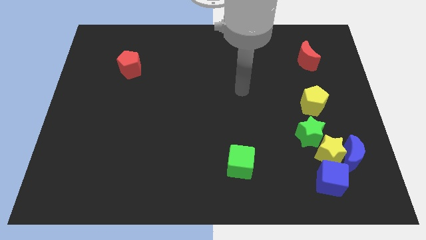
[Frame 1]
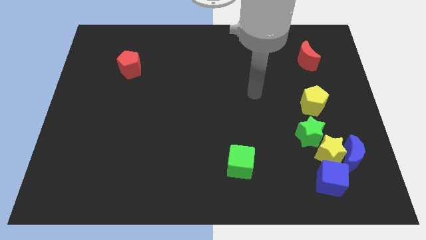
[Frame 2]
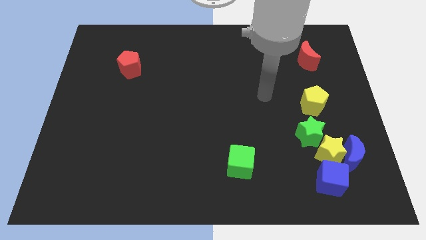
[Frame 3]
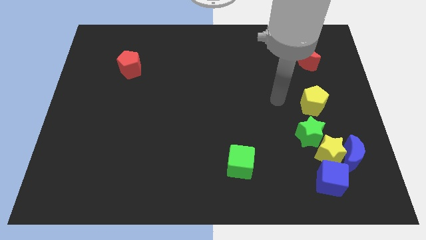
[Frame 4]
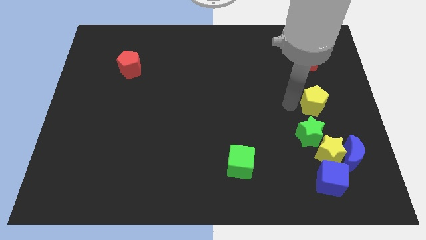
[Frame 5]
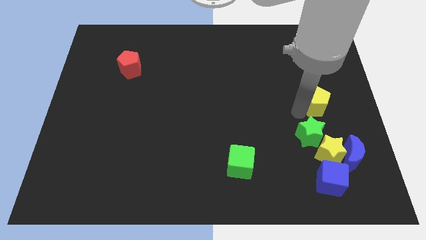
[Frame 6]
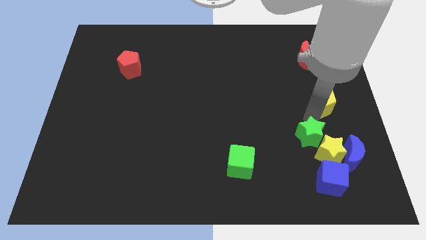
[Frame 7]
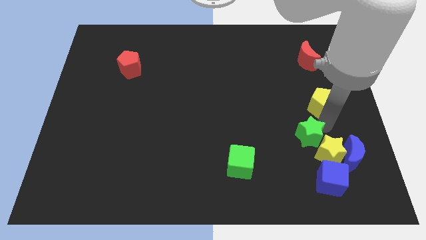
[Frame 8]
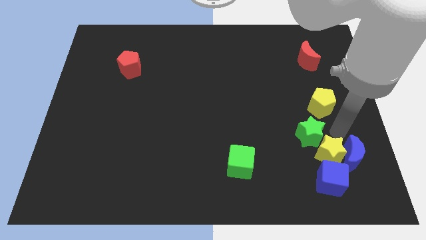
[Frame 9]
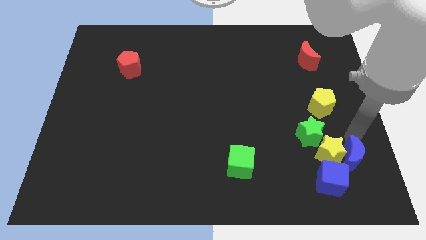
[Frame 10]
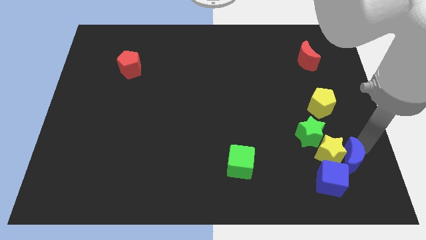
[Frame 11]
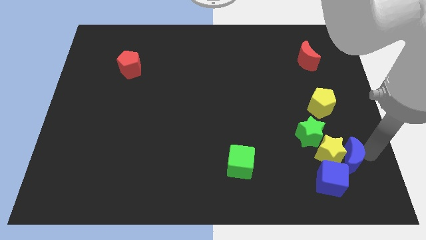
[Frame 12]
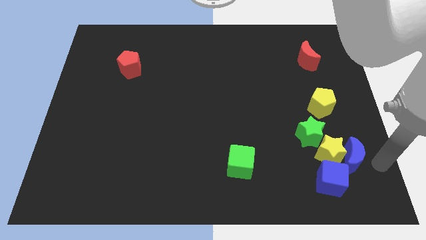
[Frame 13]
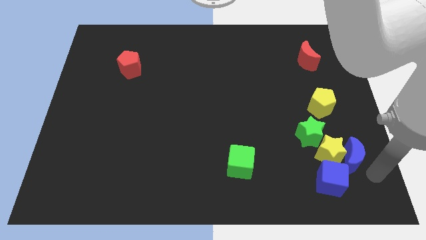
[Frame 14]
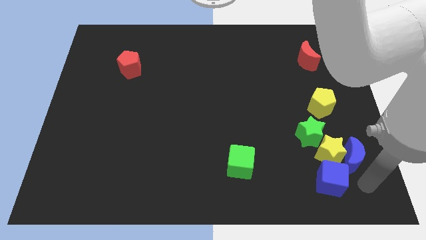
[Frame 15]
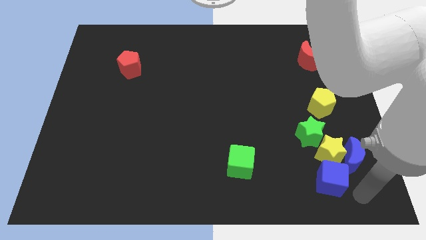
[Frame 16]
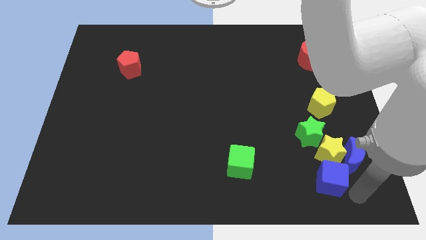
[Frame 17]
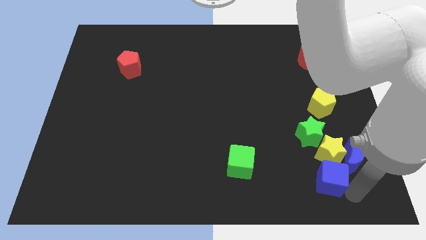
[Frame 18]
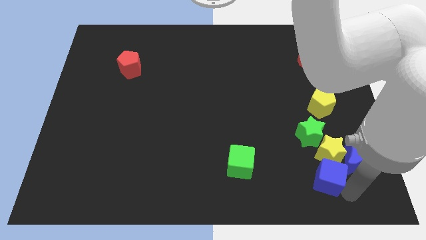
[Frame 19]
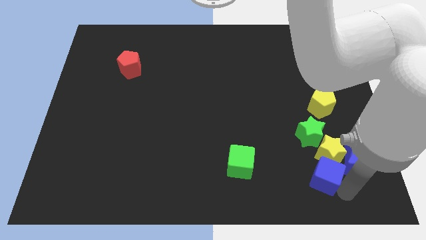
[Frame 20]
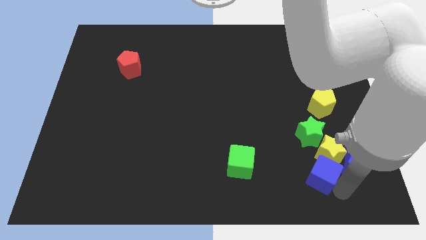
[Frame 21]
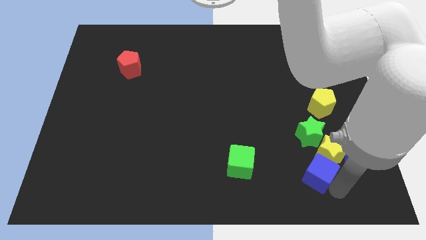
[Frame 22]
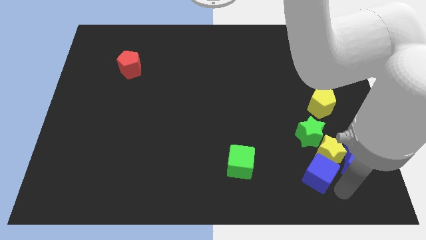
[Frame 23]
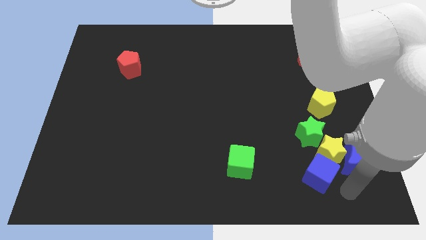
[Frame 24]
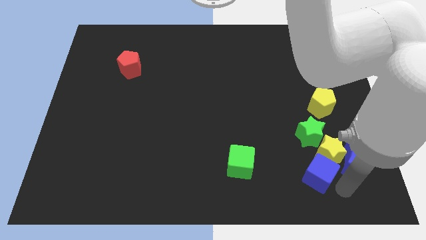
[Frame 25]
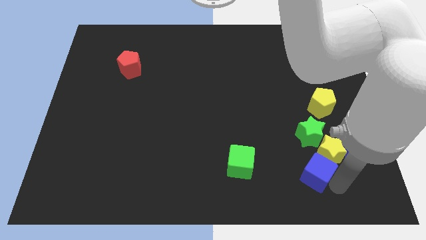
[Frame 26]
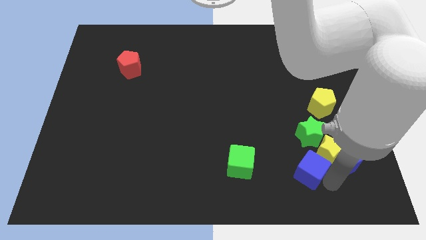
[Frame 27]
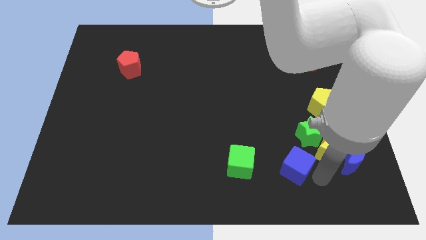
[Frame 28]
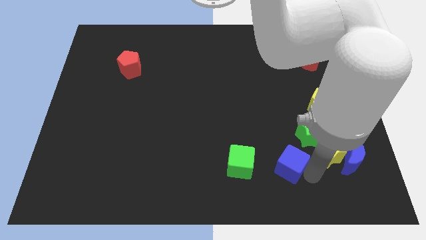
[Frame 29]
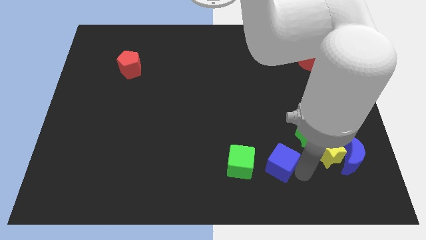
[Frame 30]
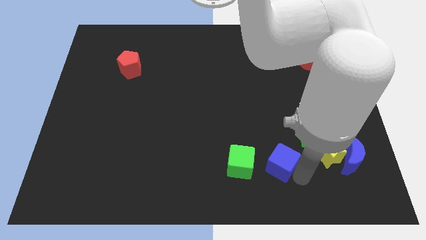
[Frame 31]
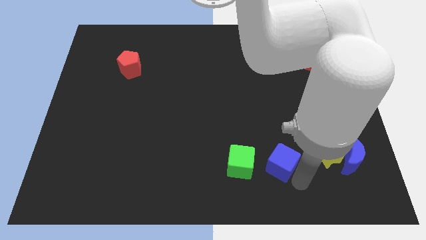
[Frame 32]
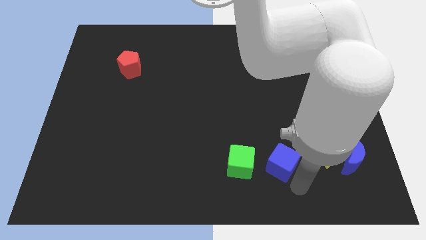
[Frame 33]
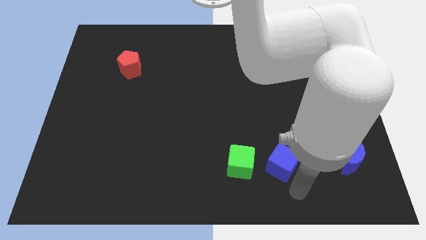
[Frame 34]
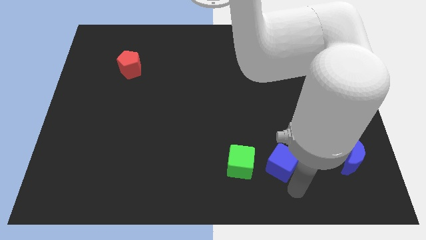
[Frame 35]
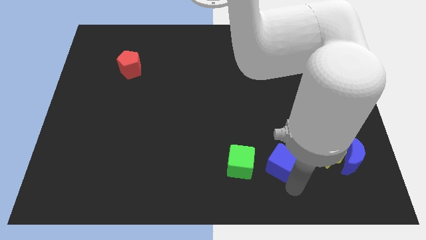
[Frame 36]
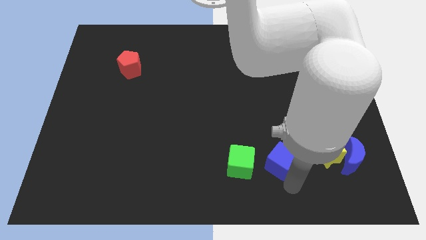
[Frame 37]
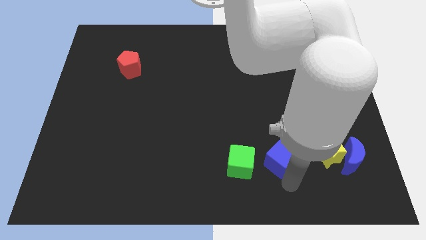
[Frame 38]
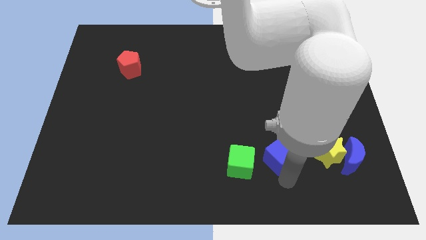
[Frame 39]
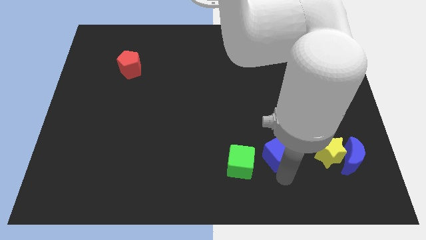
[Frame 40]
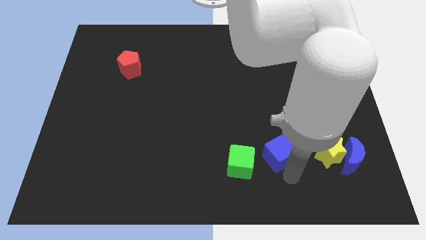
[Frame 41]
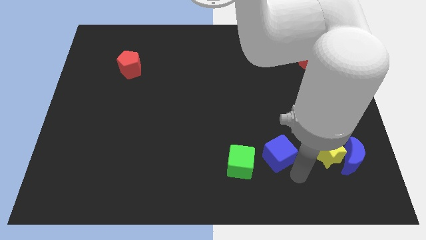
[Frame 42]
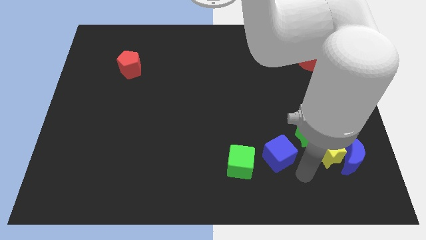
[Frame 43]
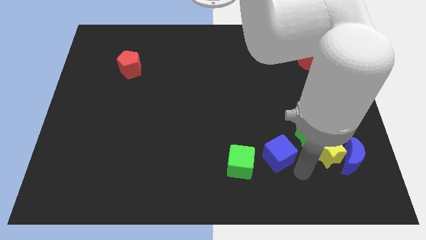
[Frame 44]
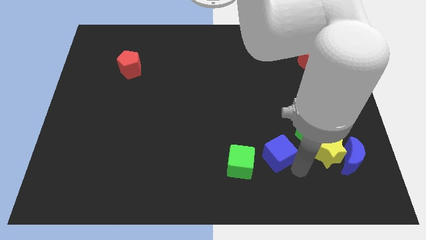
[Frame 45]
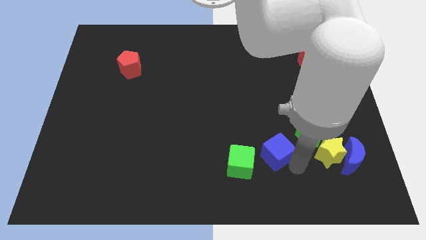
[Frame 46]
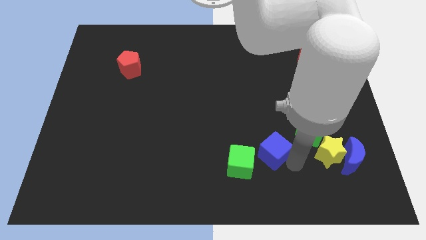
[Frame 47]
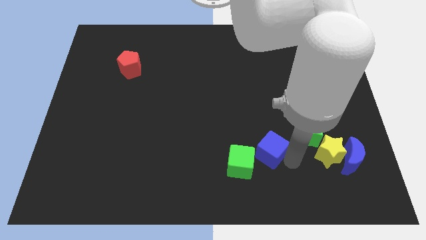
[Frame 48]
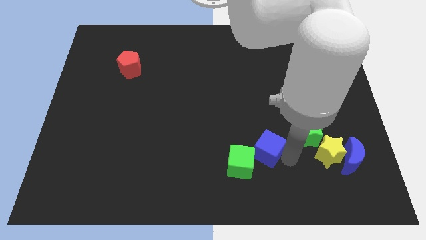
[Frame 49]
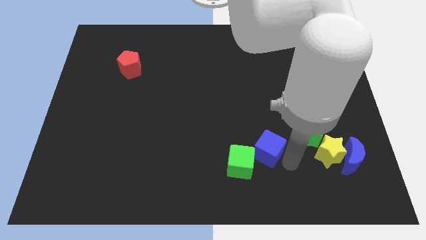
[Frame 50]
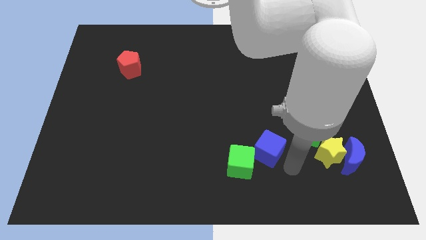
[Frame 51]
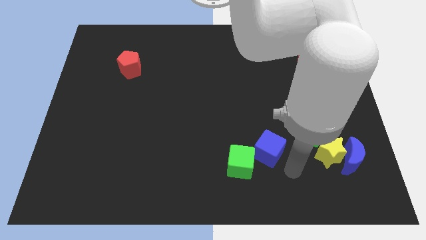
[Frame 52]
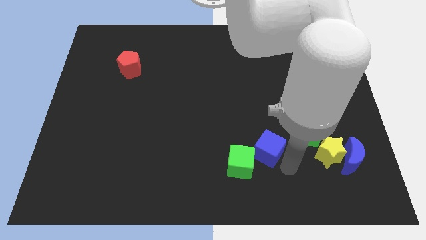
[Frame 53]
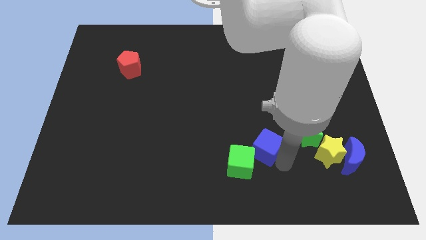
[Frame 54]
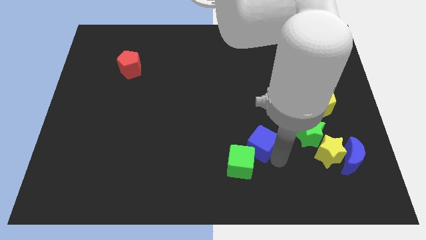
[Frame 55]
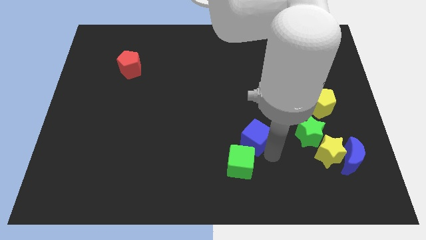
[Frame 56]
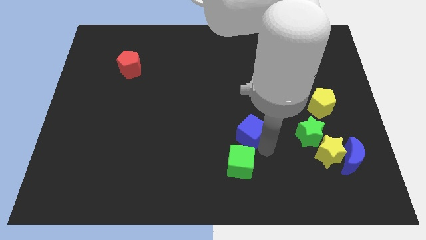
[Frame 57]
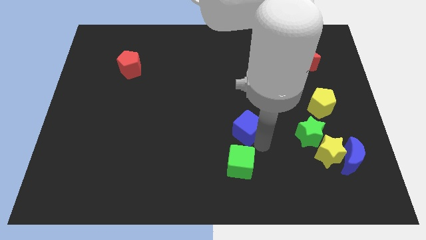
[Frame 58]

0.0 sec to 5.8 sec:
slide the blue cube to the middle of the board

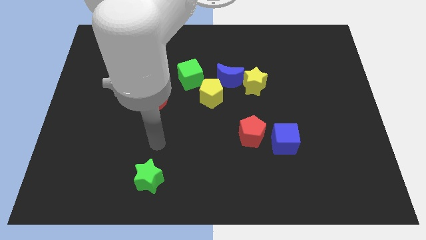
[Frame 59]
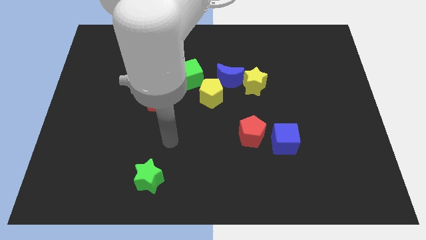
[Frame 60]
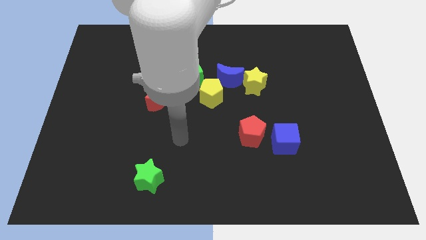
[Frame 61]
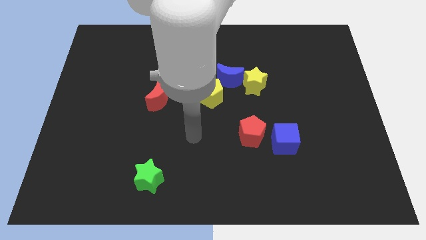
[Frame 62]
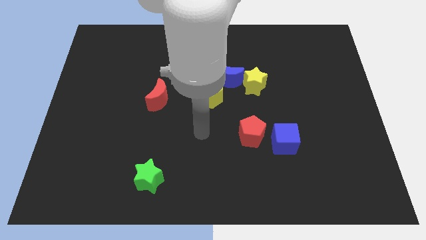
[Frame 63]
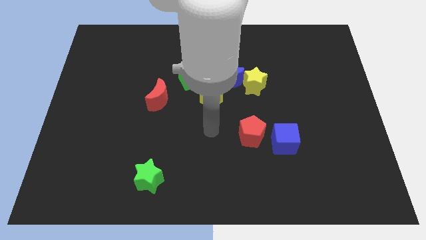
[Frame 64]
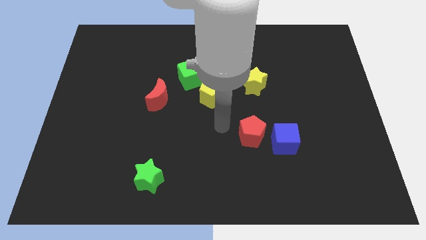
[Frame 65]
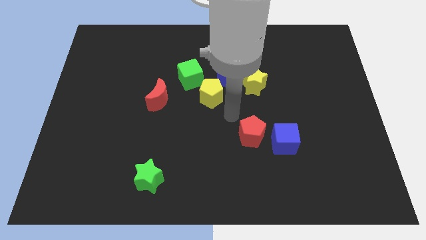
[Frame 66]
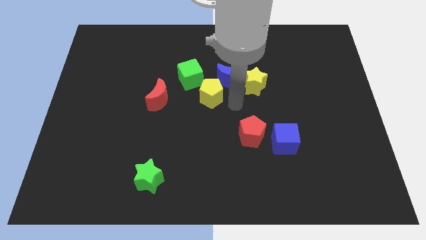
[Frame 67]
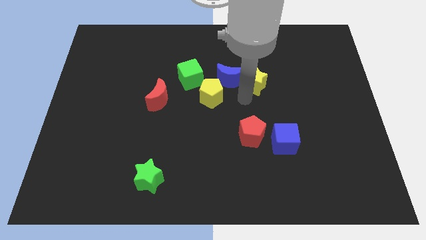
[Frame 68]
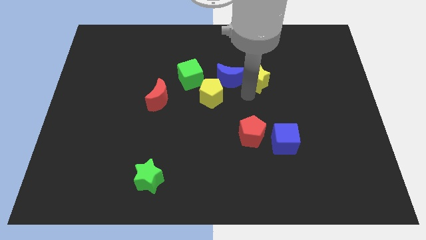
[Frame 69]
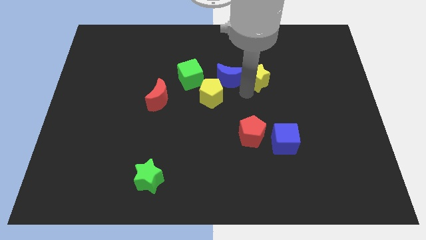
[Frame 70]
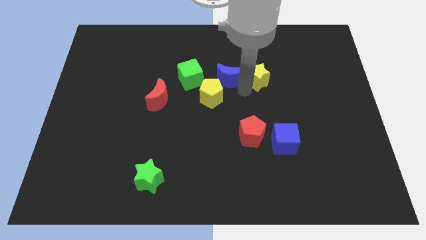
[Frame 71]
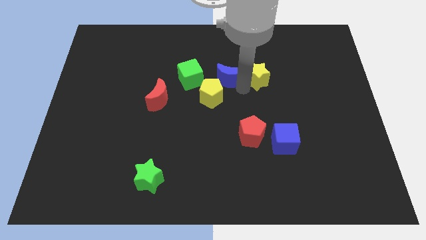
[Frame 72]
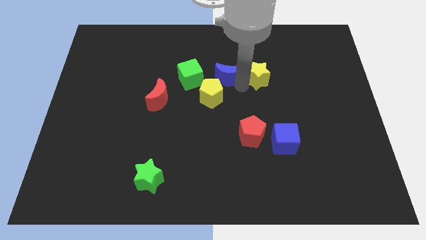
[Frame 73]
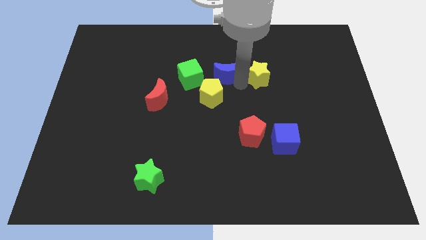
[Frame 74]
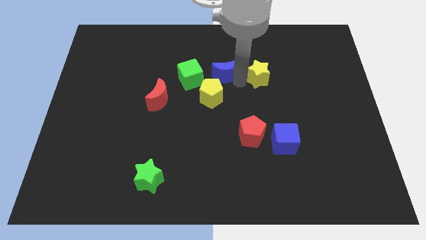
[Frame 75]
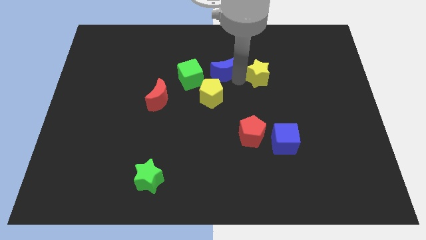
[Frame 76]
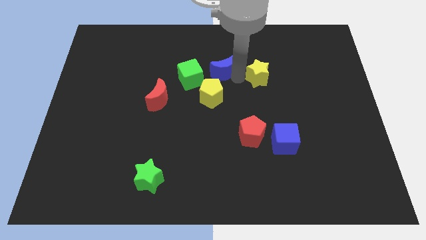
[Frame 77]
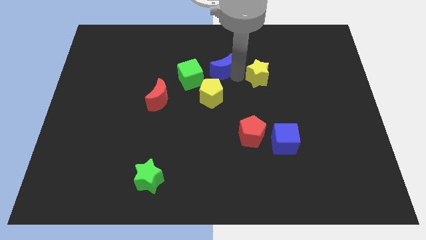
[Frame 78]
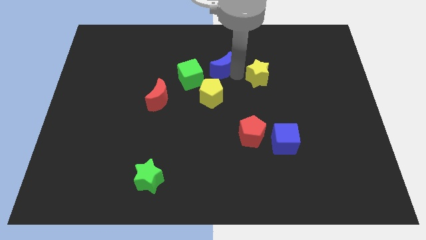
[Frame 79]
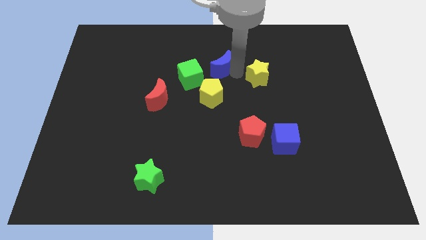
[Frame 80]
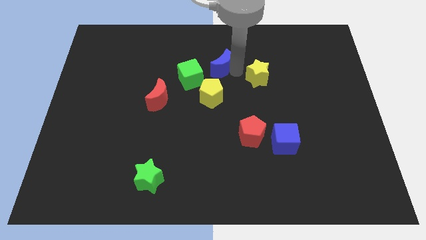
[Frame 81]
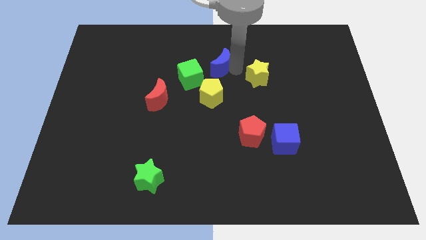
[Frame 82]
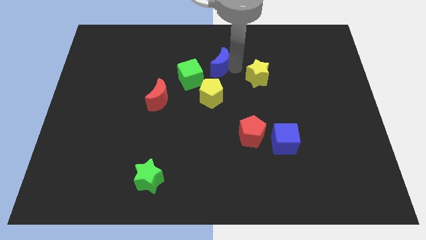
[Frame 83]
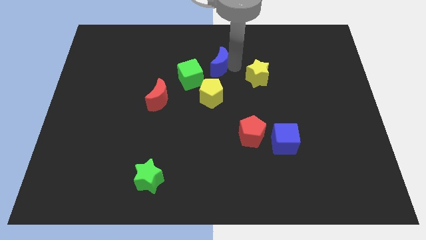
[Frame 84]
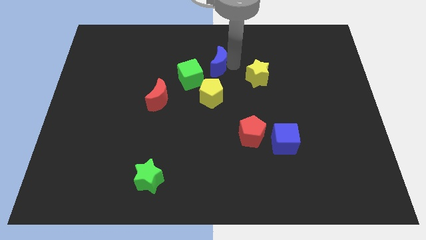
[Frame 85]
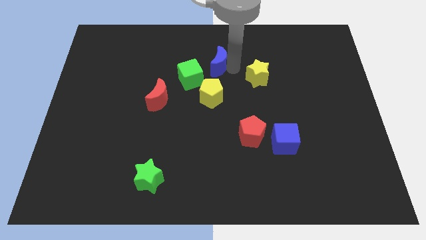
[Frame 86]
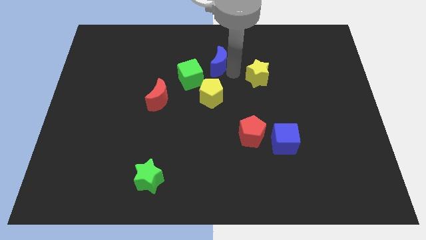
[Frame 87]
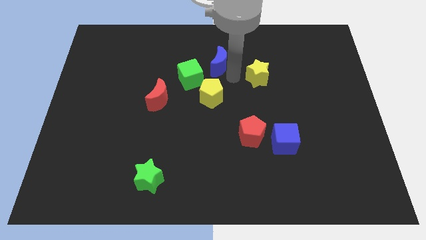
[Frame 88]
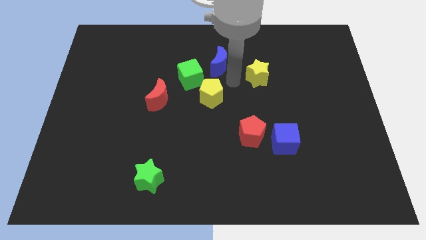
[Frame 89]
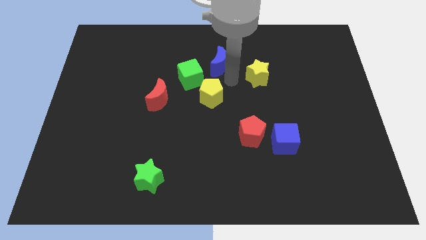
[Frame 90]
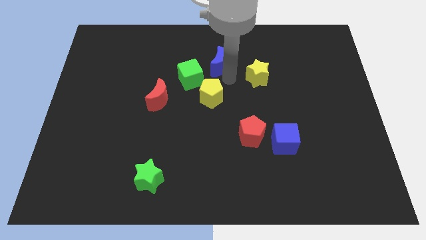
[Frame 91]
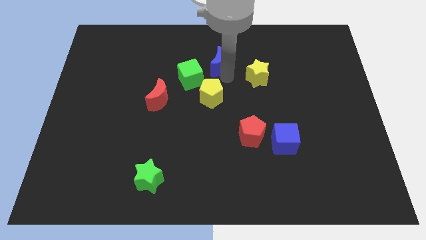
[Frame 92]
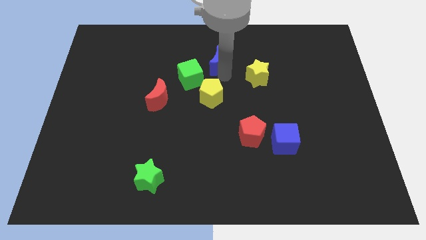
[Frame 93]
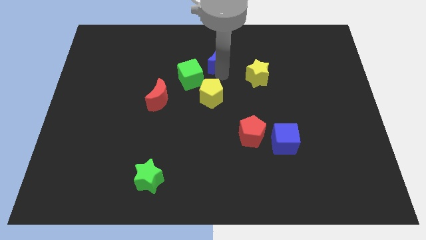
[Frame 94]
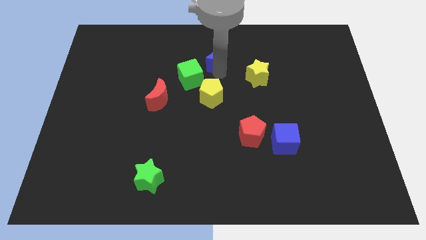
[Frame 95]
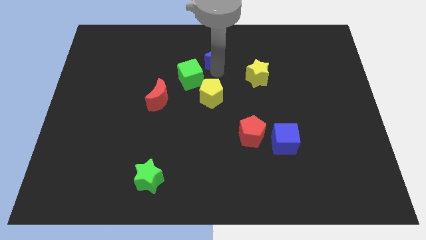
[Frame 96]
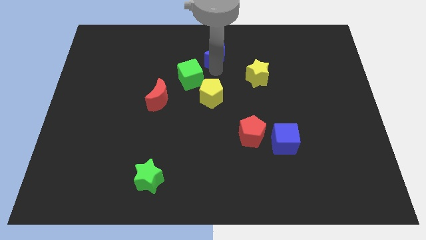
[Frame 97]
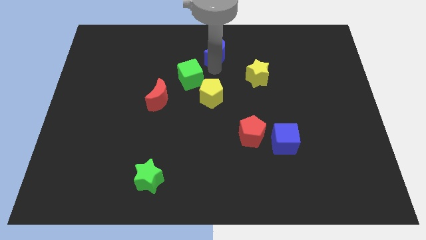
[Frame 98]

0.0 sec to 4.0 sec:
slide the blue moon to the top side
